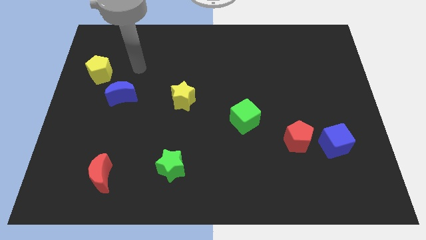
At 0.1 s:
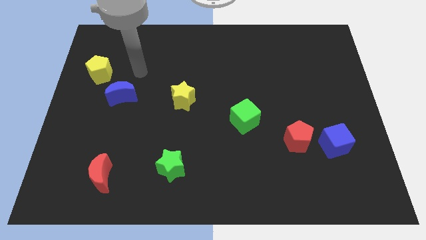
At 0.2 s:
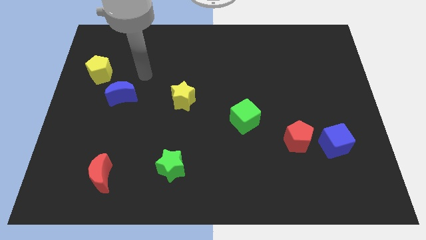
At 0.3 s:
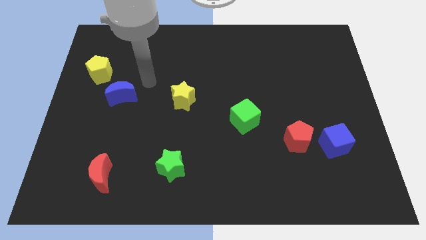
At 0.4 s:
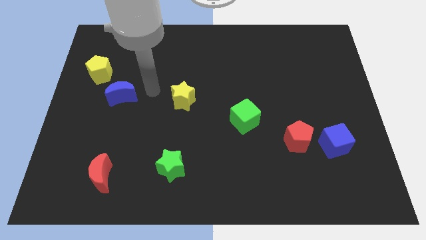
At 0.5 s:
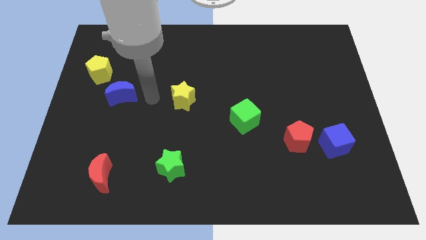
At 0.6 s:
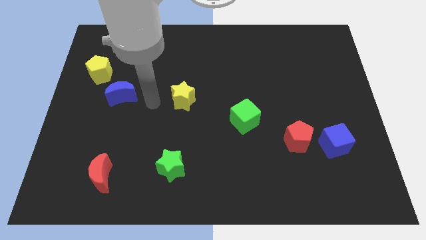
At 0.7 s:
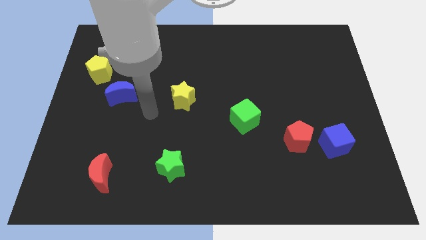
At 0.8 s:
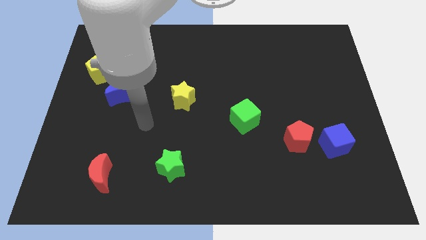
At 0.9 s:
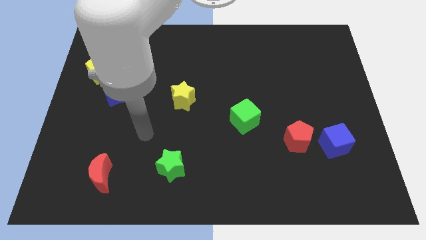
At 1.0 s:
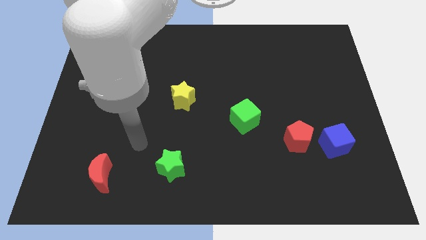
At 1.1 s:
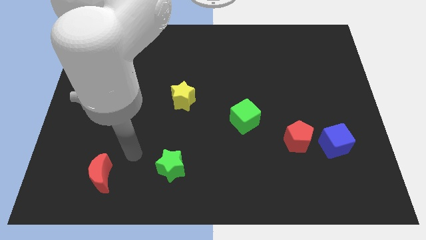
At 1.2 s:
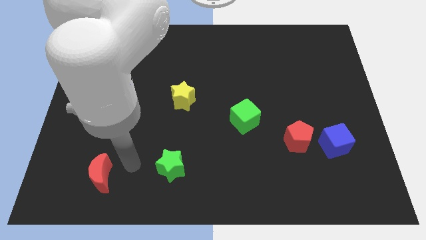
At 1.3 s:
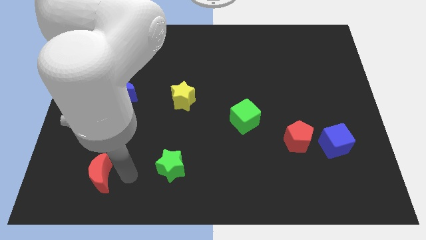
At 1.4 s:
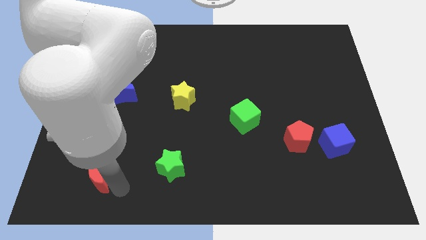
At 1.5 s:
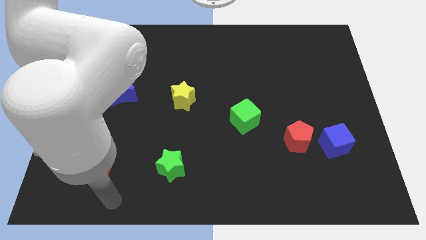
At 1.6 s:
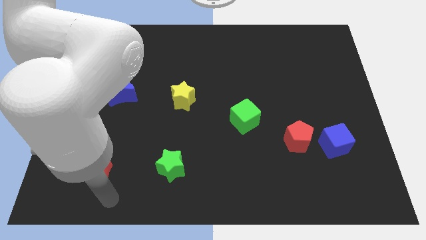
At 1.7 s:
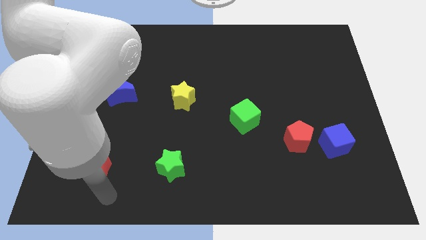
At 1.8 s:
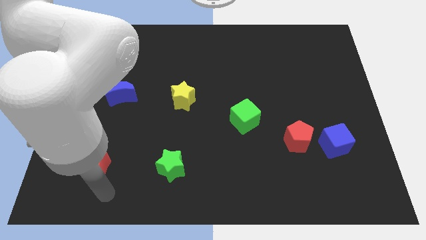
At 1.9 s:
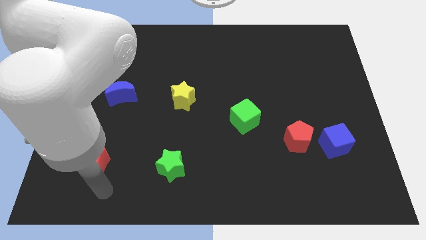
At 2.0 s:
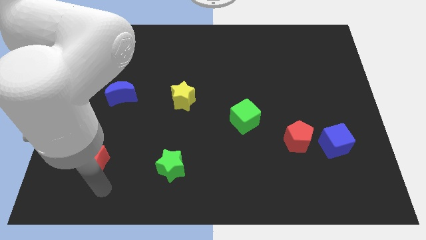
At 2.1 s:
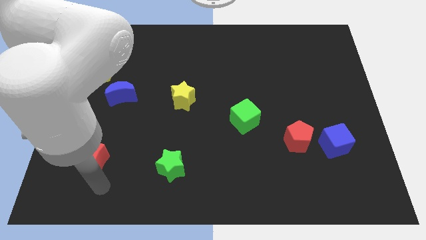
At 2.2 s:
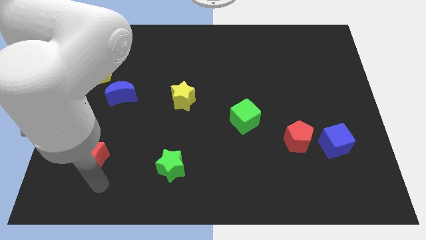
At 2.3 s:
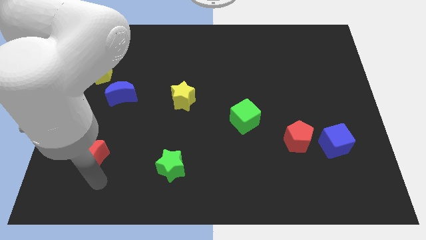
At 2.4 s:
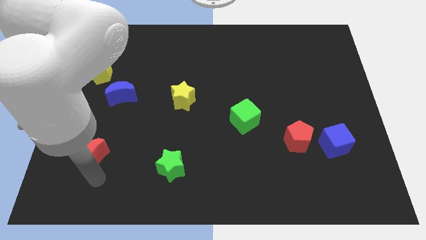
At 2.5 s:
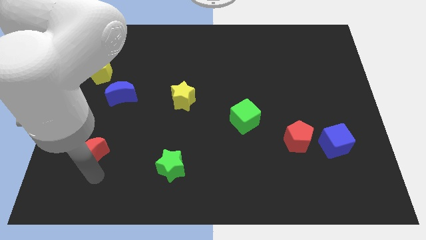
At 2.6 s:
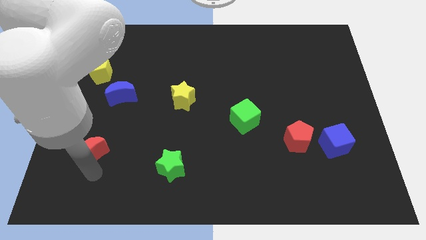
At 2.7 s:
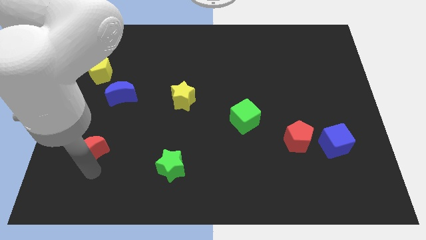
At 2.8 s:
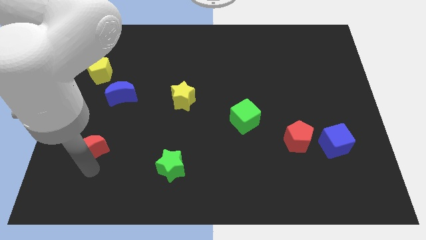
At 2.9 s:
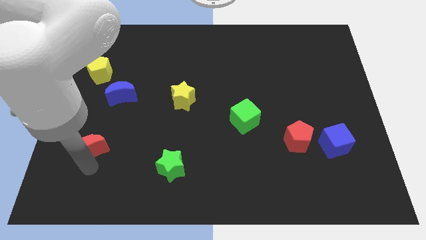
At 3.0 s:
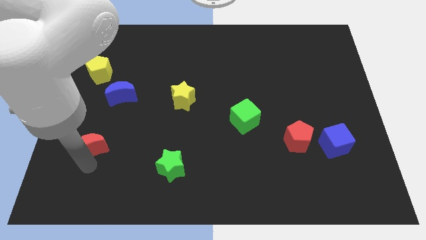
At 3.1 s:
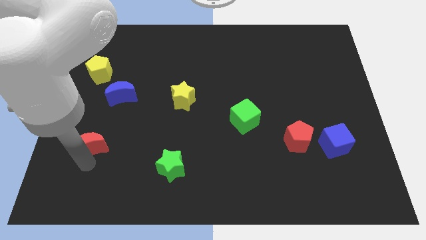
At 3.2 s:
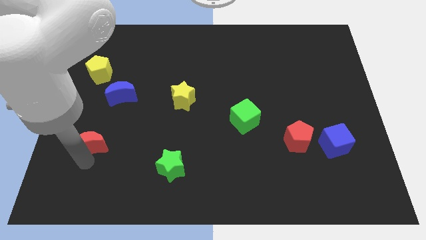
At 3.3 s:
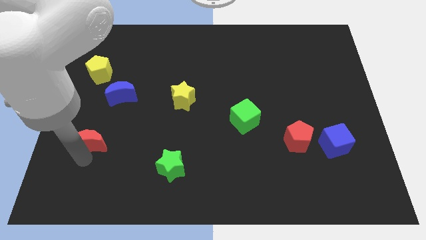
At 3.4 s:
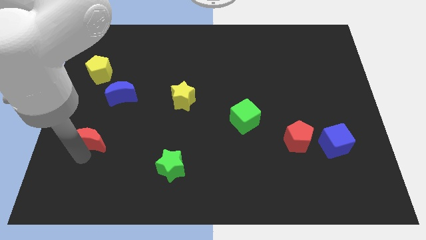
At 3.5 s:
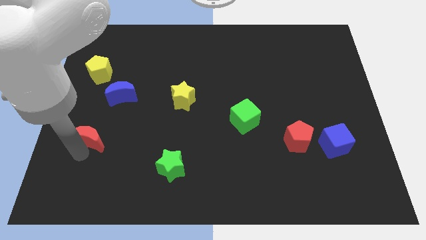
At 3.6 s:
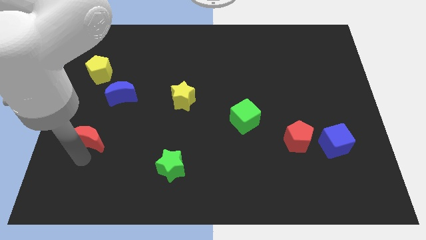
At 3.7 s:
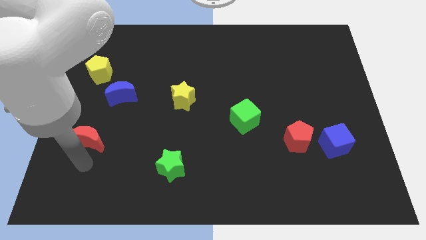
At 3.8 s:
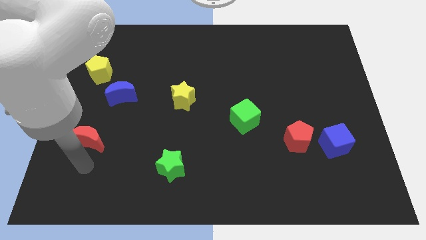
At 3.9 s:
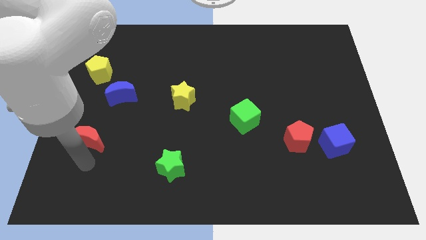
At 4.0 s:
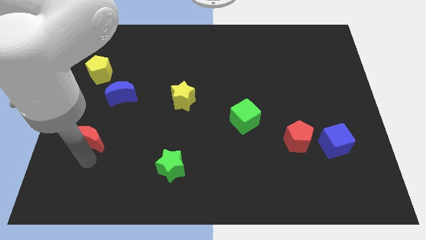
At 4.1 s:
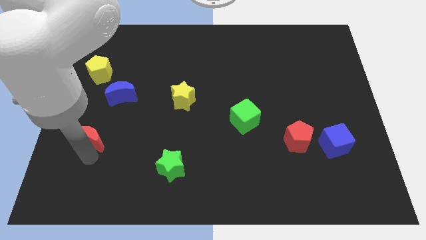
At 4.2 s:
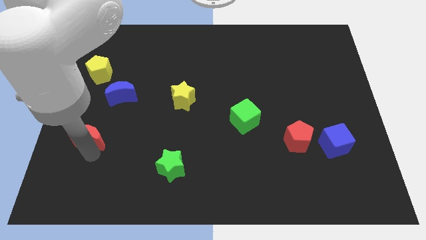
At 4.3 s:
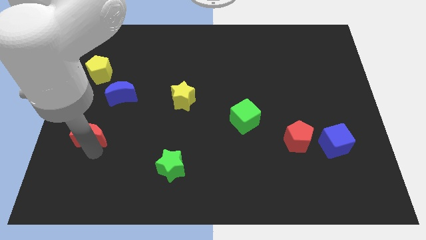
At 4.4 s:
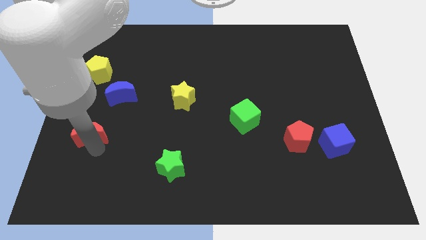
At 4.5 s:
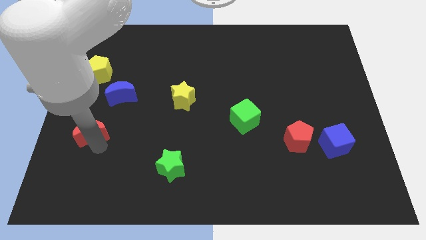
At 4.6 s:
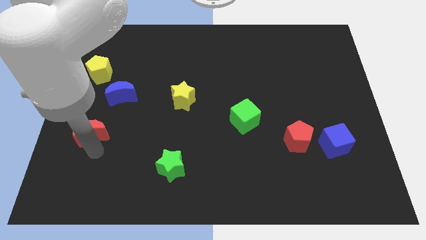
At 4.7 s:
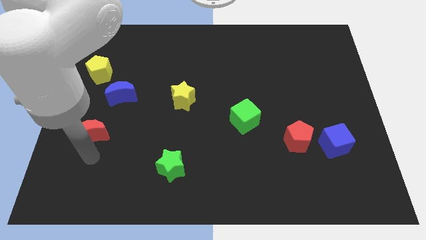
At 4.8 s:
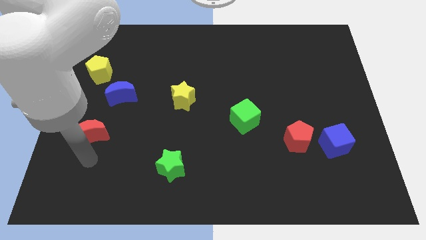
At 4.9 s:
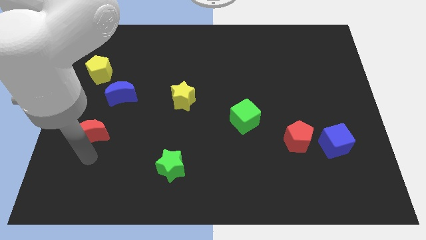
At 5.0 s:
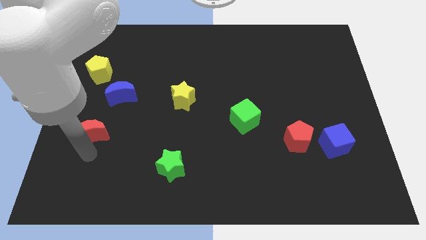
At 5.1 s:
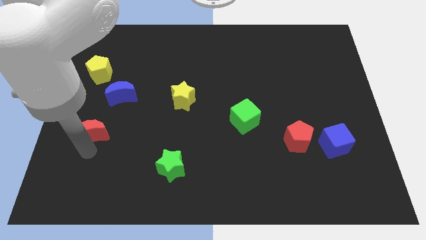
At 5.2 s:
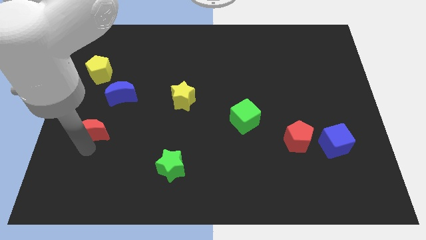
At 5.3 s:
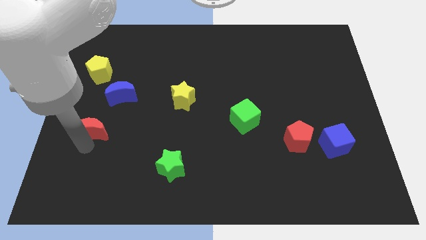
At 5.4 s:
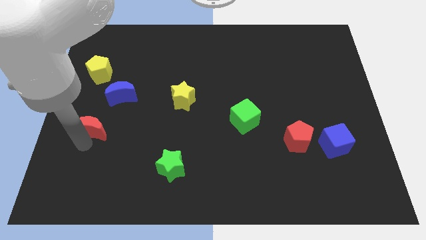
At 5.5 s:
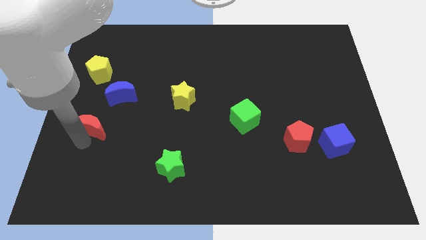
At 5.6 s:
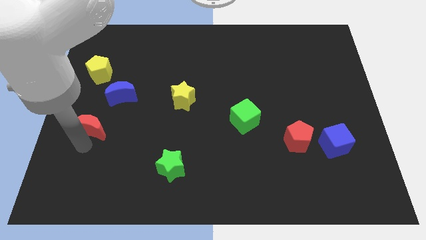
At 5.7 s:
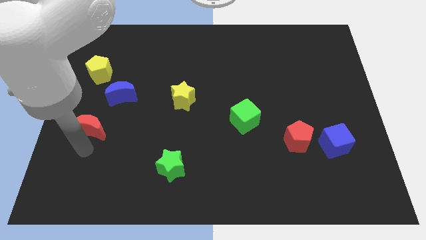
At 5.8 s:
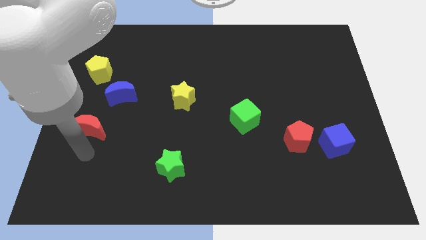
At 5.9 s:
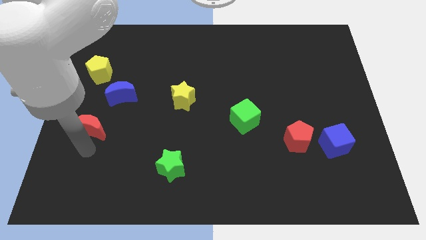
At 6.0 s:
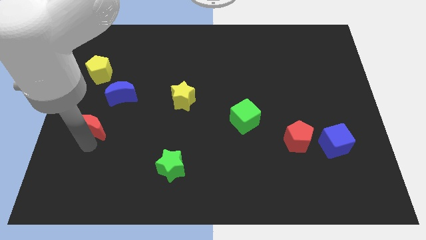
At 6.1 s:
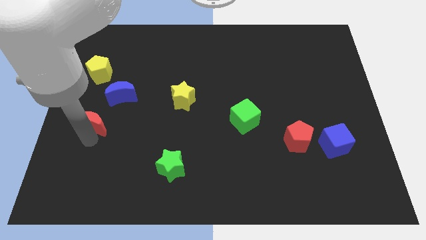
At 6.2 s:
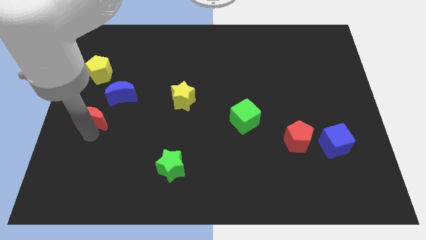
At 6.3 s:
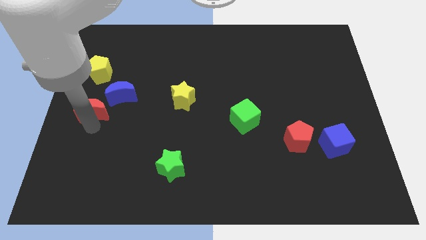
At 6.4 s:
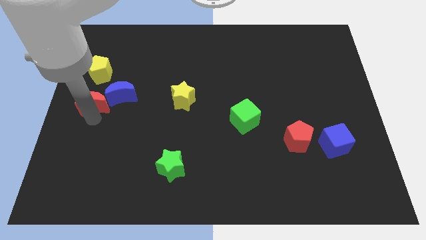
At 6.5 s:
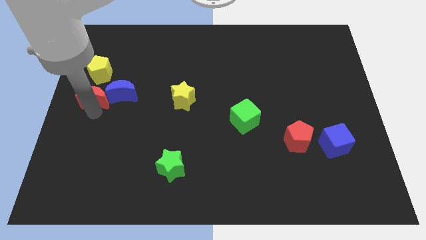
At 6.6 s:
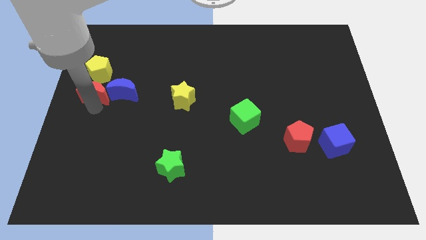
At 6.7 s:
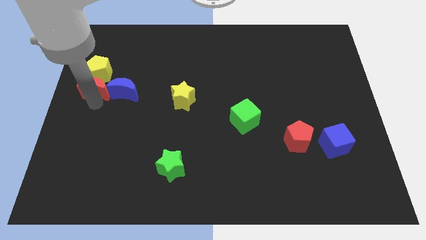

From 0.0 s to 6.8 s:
move the red moon next to the yellow pentagon

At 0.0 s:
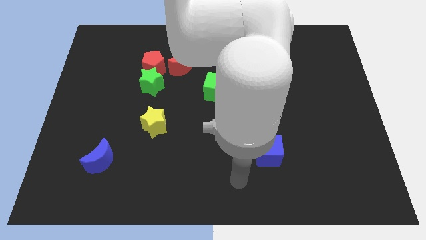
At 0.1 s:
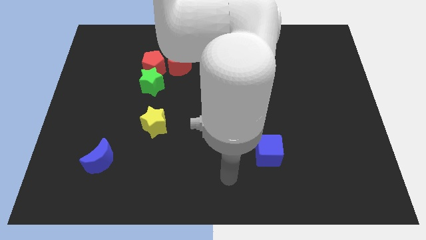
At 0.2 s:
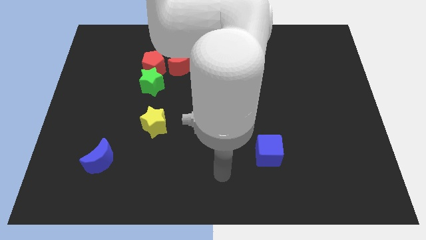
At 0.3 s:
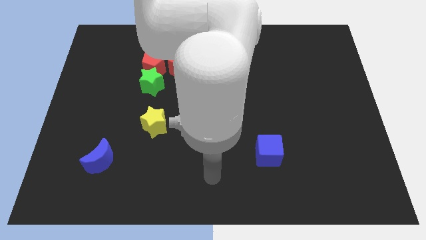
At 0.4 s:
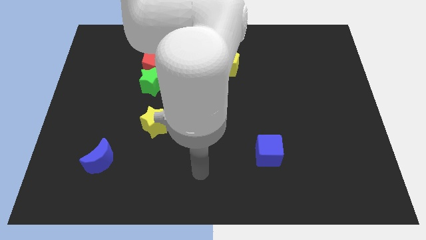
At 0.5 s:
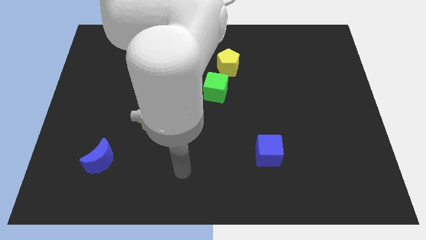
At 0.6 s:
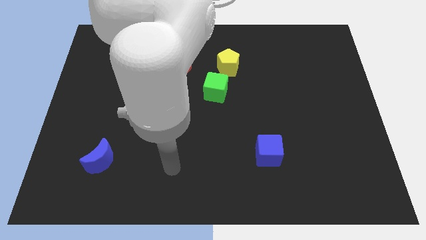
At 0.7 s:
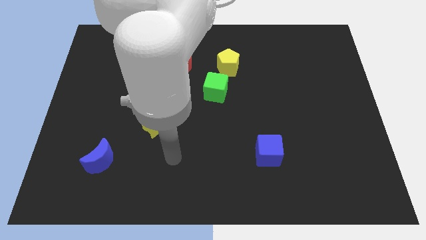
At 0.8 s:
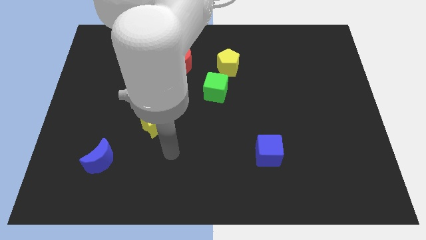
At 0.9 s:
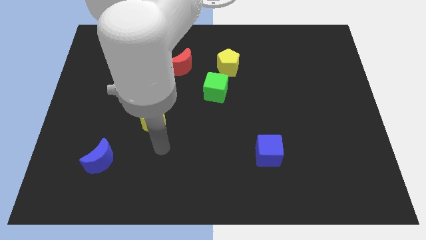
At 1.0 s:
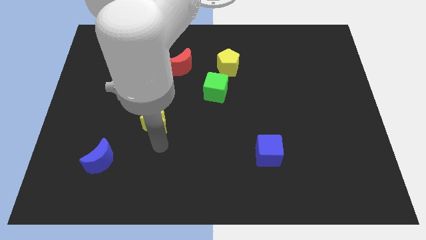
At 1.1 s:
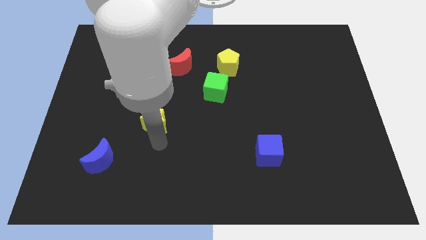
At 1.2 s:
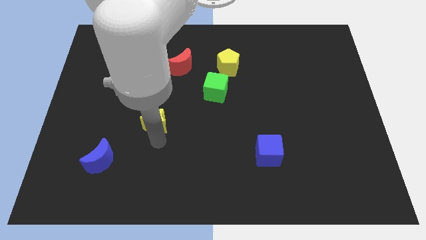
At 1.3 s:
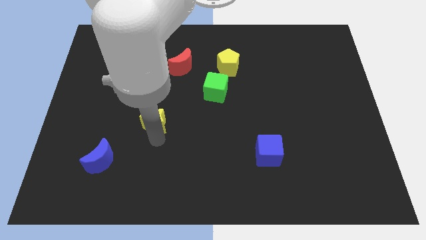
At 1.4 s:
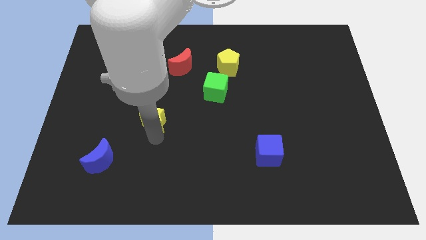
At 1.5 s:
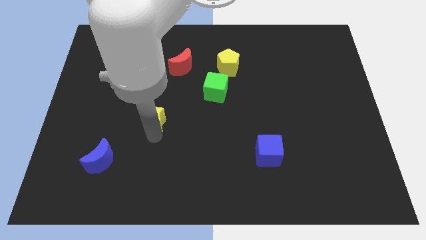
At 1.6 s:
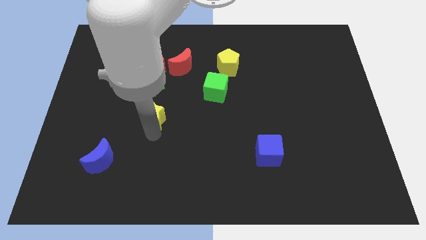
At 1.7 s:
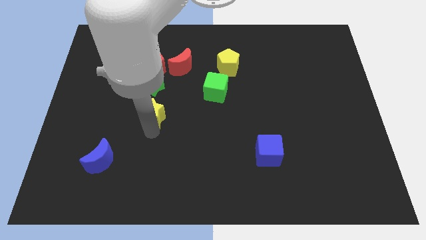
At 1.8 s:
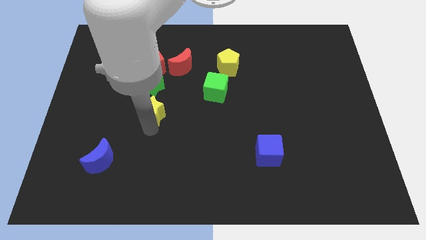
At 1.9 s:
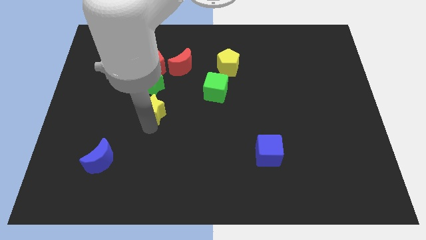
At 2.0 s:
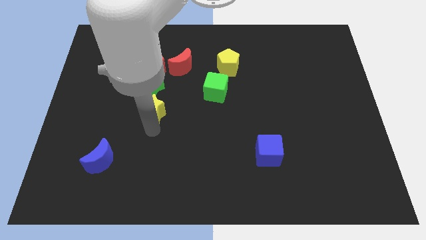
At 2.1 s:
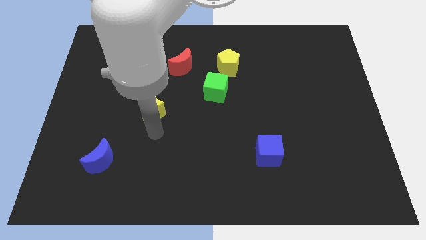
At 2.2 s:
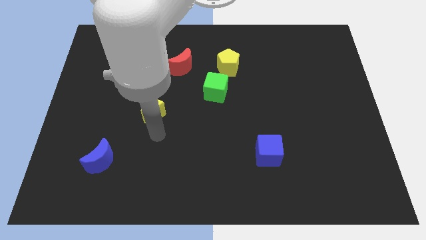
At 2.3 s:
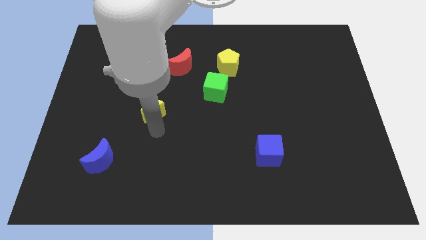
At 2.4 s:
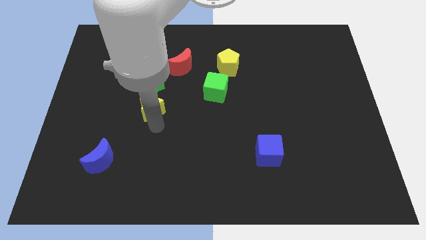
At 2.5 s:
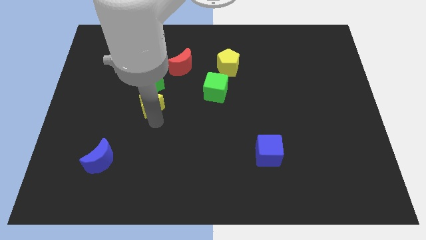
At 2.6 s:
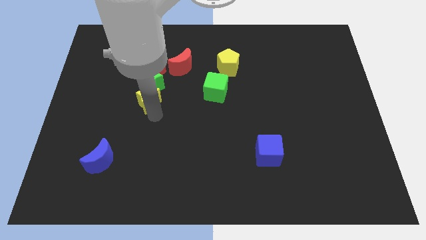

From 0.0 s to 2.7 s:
slide the yellow star next to the green star
